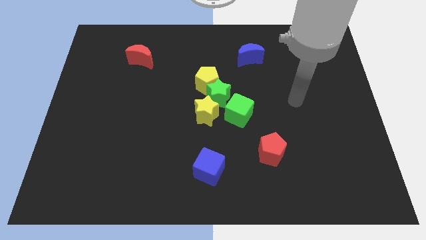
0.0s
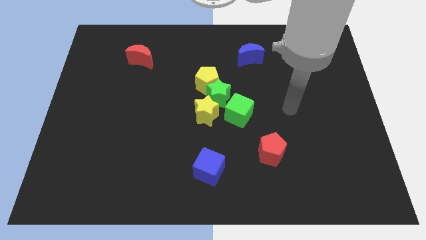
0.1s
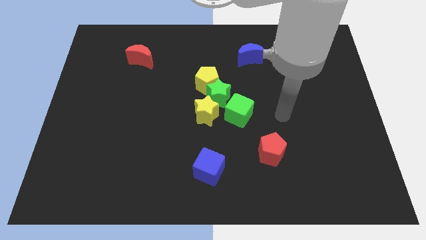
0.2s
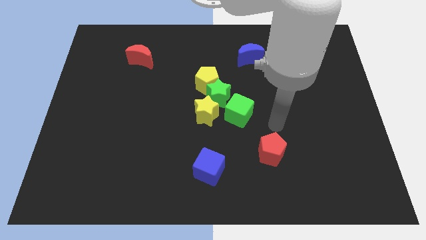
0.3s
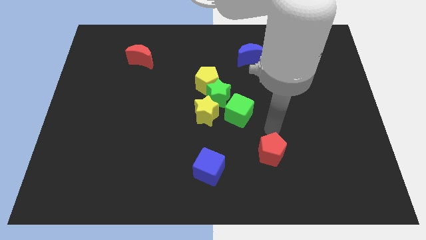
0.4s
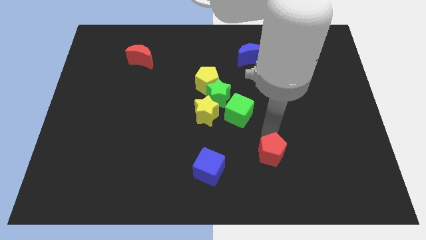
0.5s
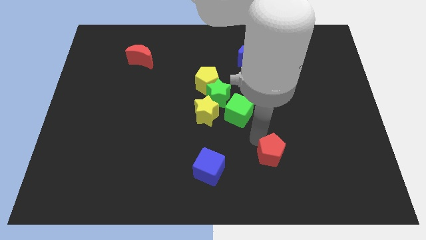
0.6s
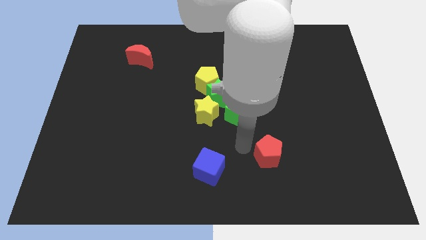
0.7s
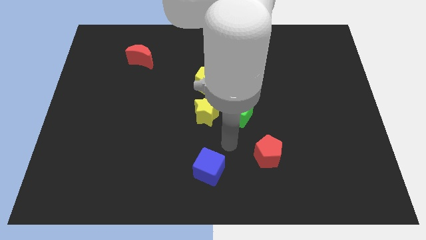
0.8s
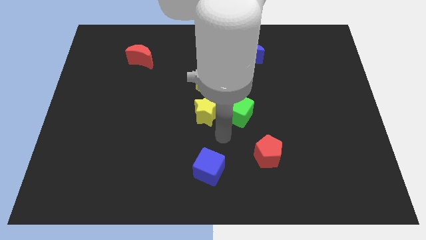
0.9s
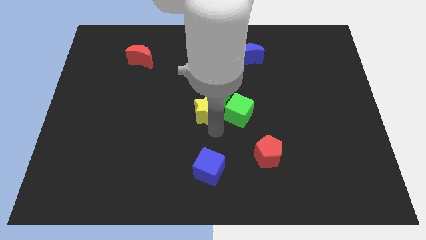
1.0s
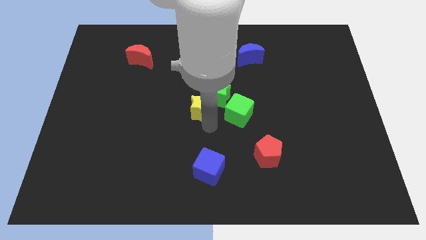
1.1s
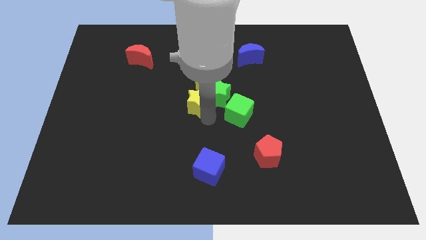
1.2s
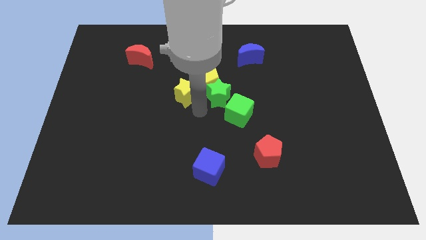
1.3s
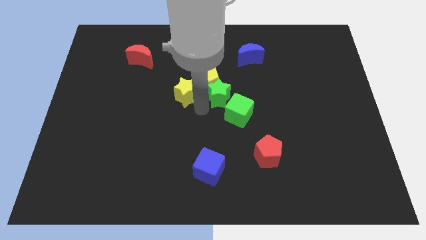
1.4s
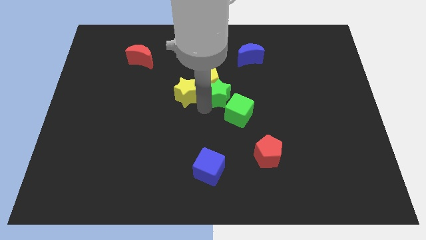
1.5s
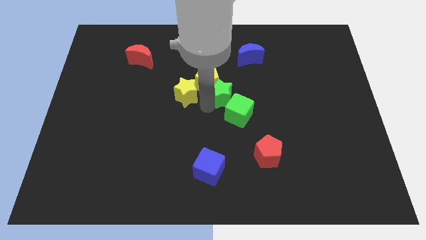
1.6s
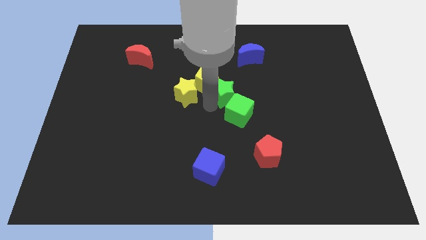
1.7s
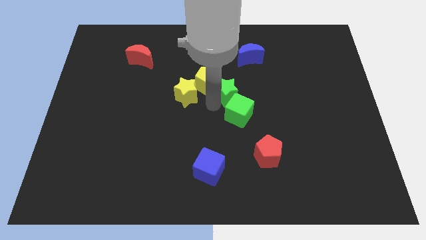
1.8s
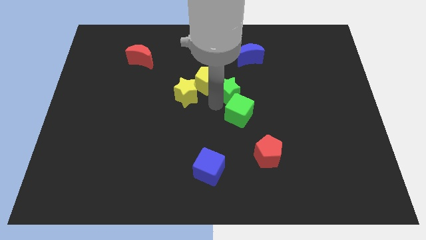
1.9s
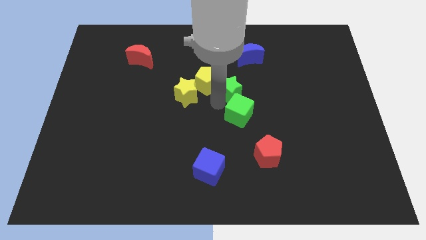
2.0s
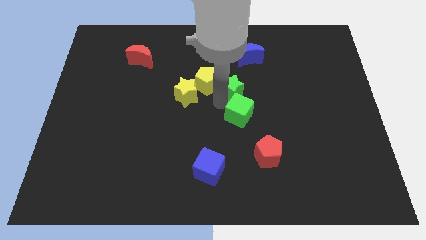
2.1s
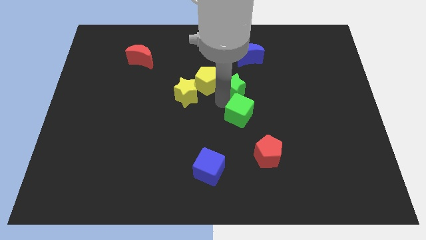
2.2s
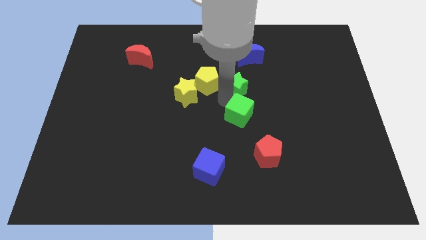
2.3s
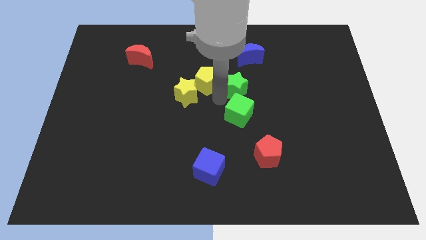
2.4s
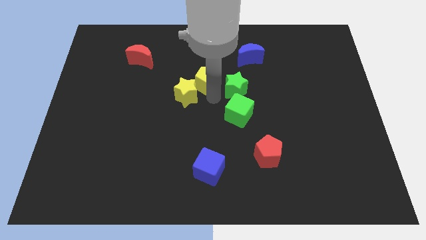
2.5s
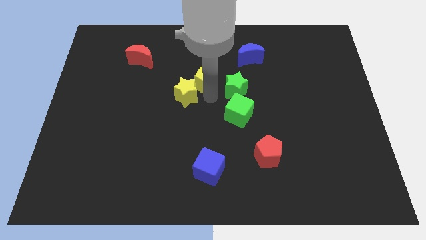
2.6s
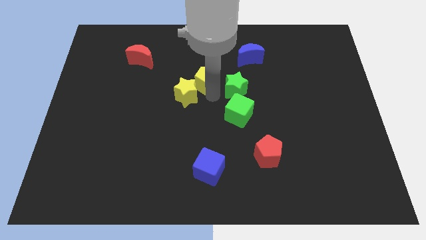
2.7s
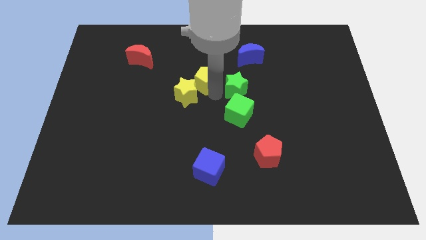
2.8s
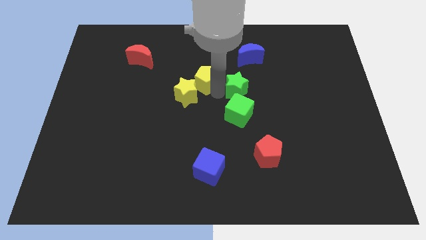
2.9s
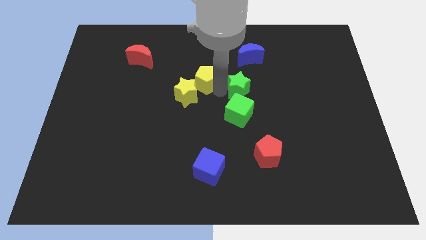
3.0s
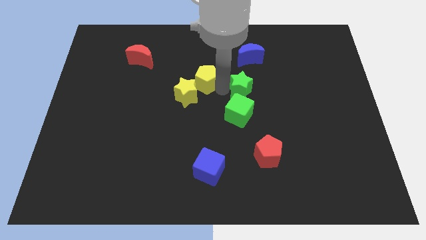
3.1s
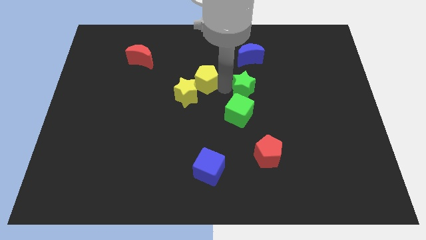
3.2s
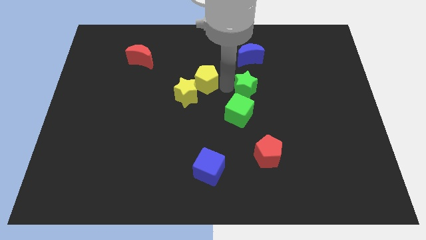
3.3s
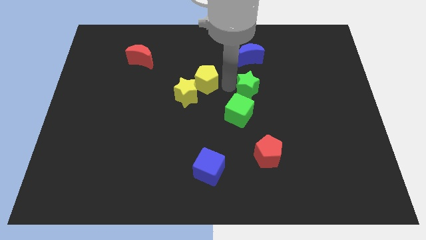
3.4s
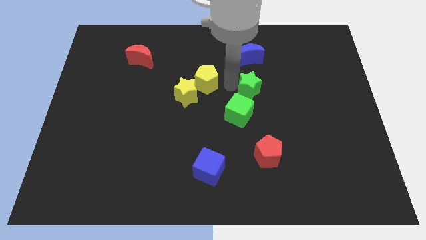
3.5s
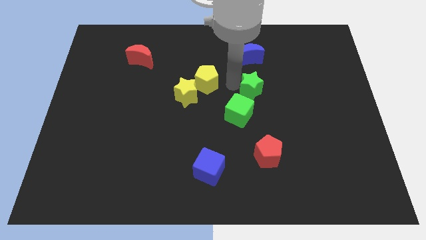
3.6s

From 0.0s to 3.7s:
pull the green star apart from the group of blocks

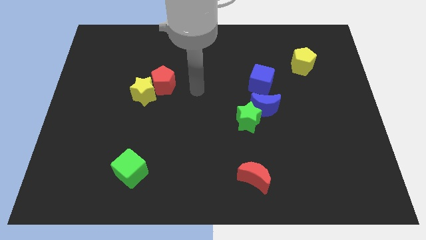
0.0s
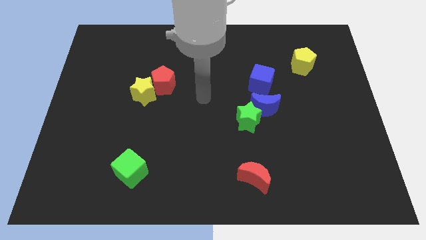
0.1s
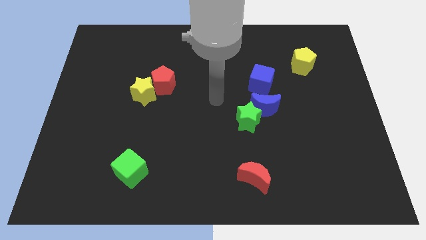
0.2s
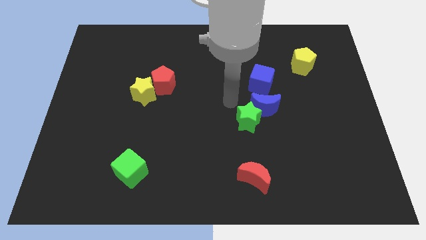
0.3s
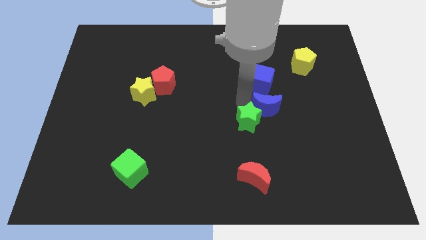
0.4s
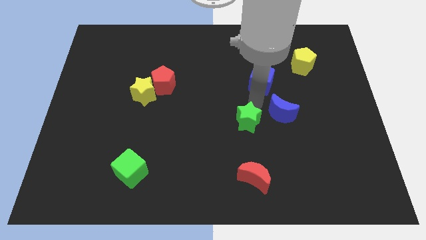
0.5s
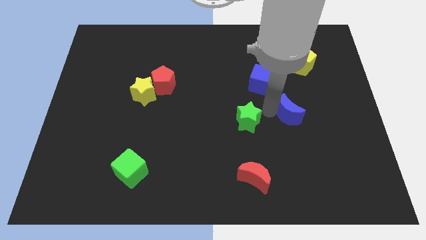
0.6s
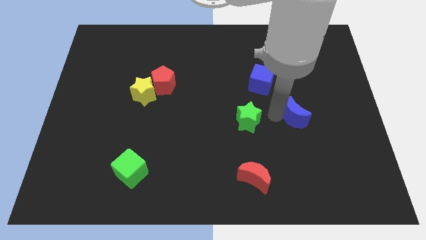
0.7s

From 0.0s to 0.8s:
move the green star away from the blue moon

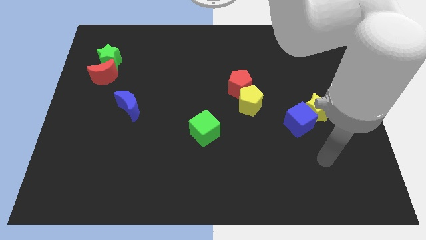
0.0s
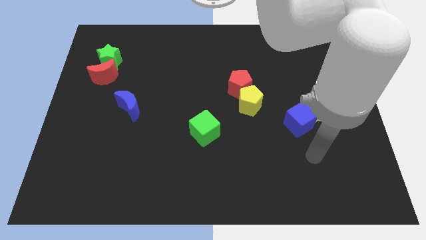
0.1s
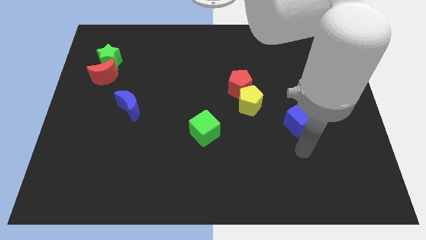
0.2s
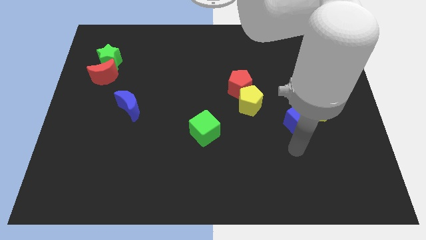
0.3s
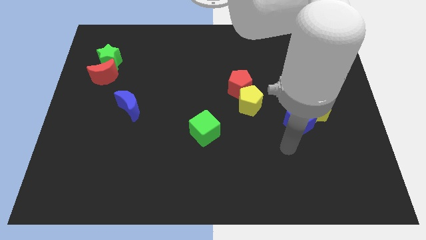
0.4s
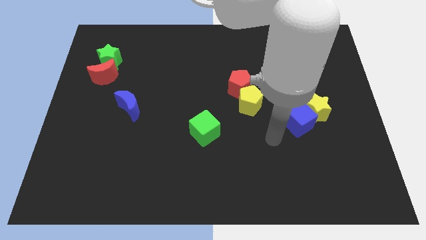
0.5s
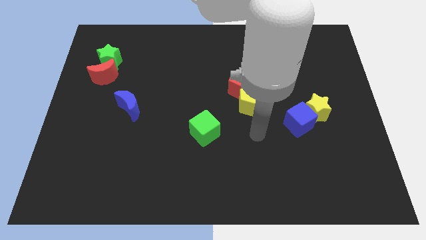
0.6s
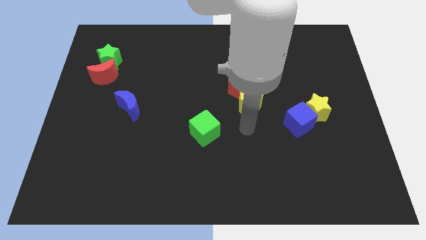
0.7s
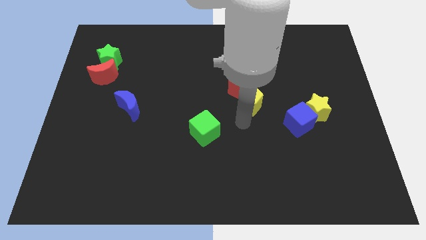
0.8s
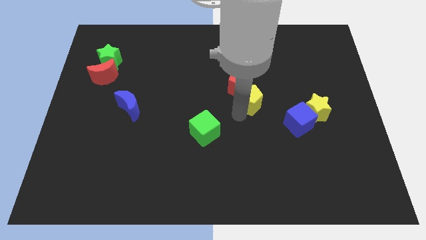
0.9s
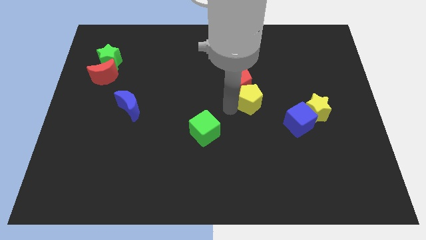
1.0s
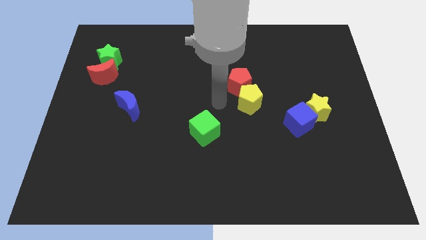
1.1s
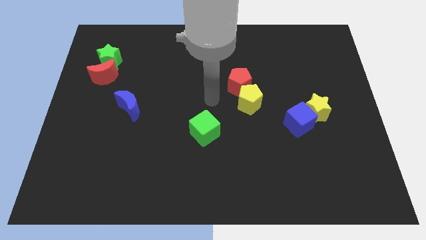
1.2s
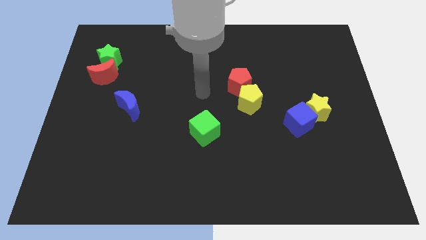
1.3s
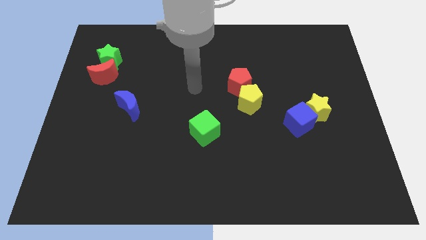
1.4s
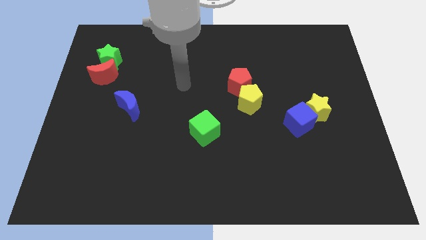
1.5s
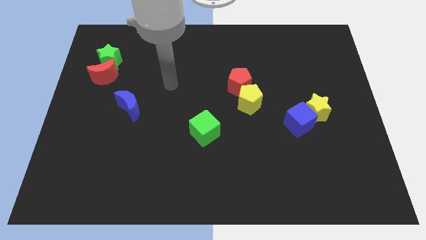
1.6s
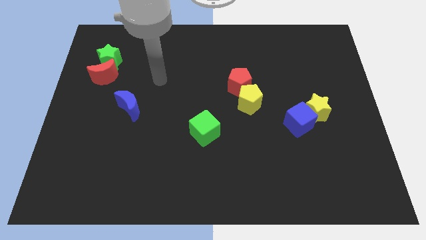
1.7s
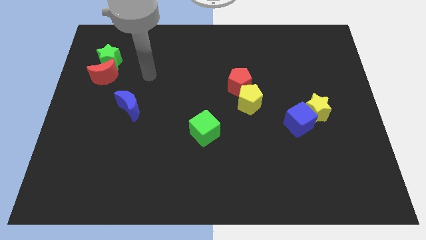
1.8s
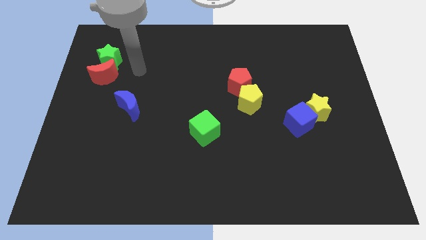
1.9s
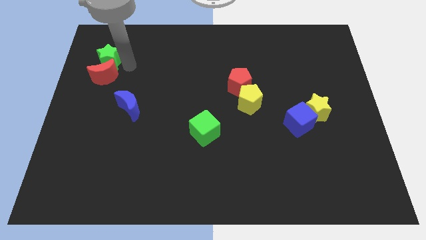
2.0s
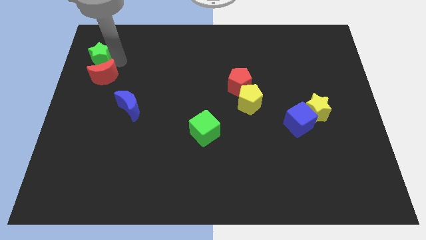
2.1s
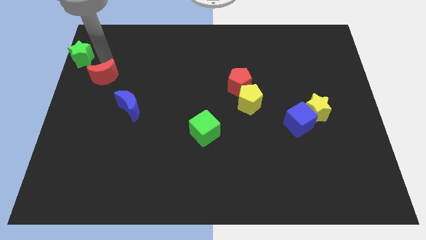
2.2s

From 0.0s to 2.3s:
pull the red moon apart from the green star

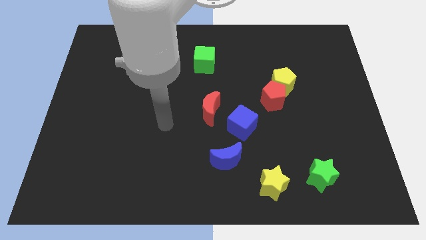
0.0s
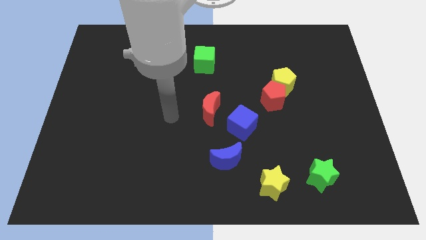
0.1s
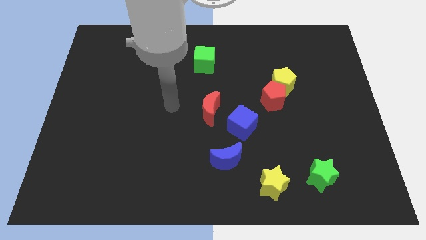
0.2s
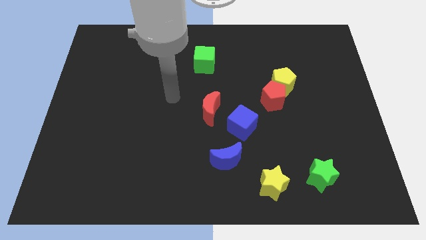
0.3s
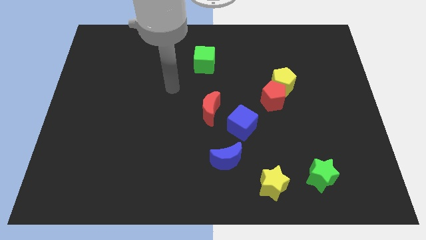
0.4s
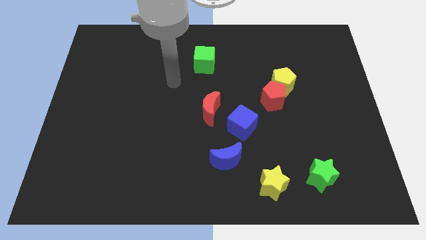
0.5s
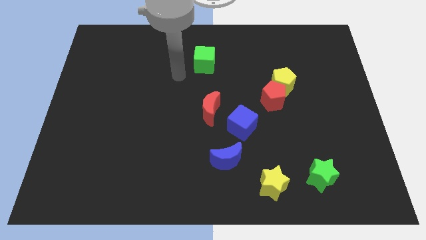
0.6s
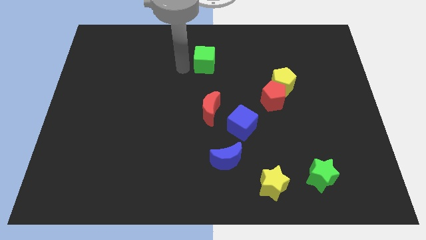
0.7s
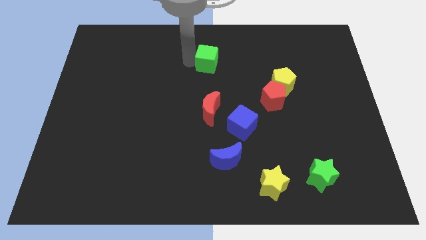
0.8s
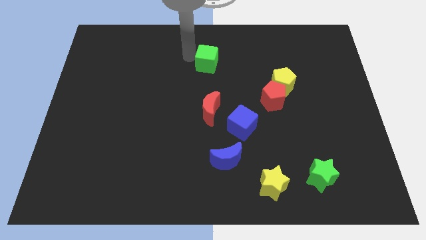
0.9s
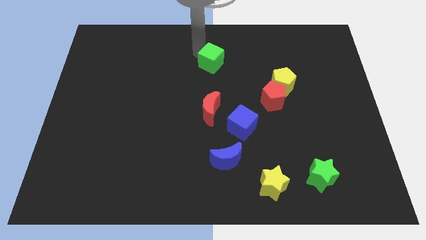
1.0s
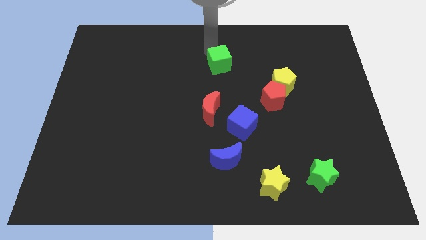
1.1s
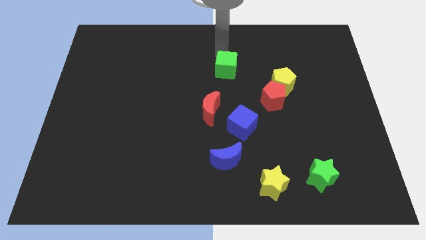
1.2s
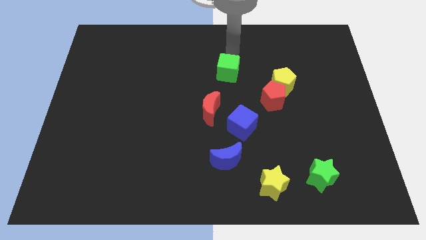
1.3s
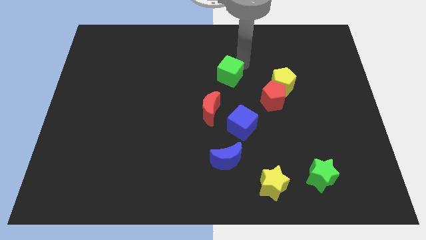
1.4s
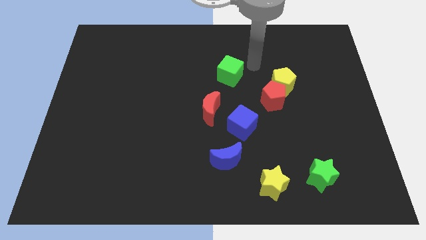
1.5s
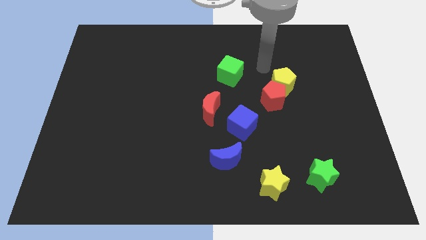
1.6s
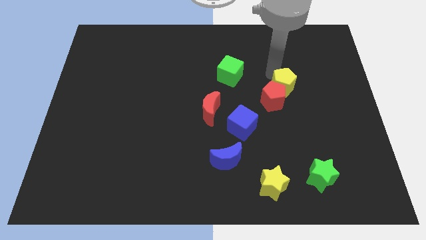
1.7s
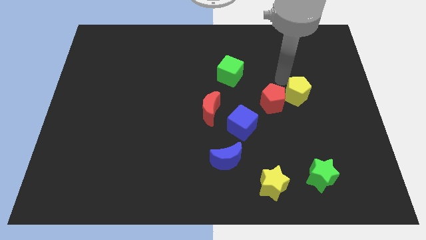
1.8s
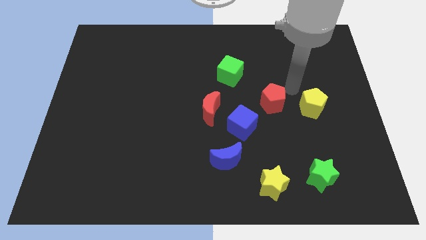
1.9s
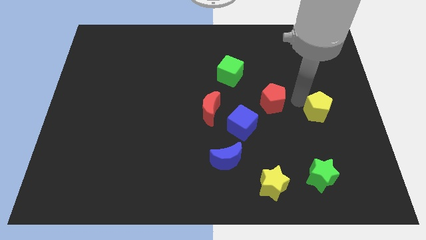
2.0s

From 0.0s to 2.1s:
move the red pentagon away from the yellow pentagon

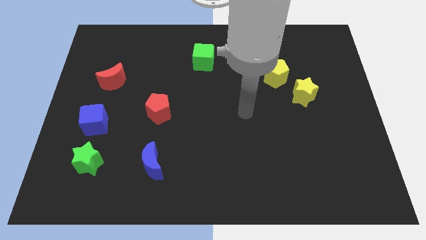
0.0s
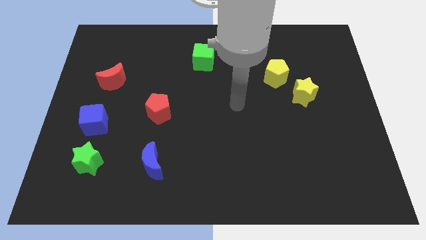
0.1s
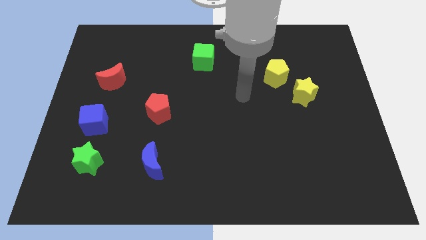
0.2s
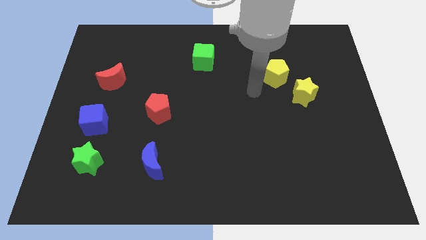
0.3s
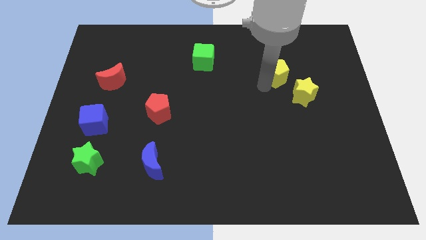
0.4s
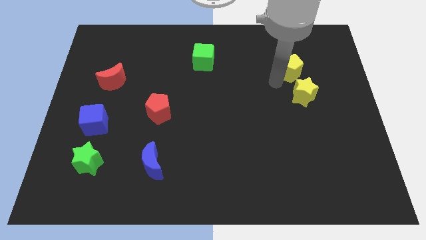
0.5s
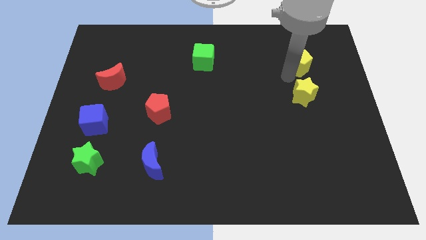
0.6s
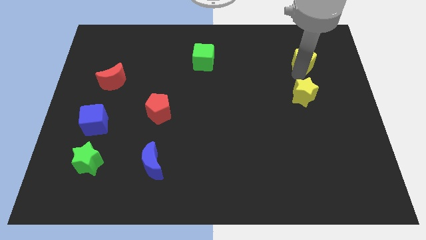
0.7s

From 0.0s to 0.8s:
move the yellow star away from the yellow pentagon
